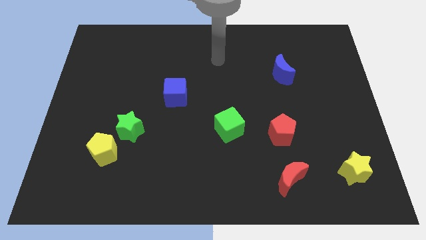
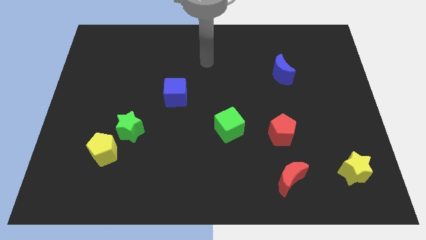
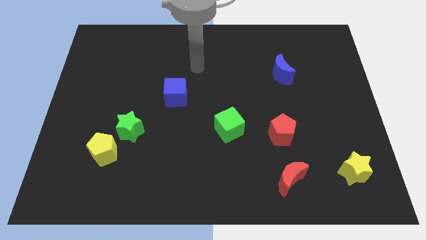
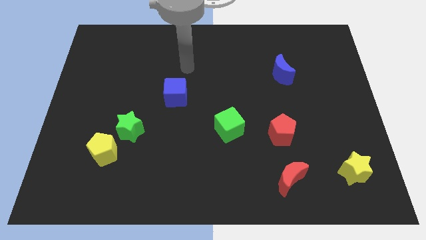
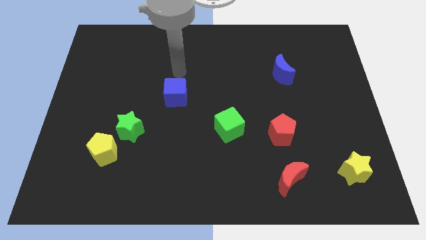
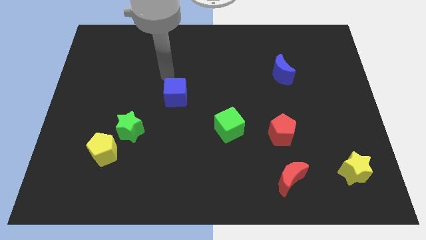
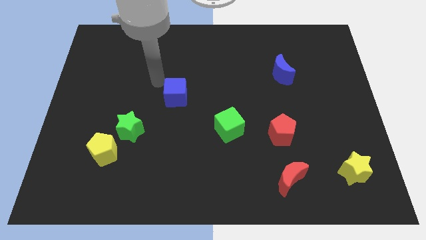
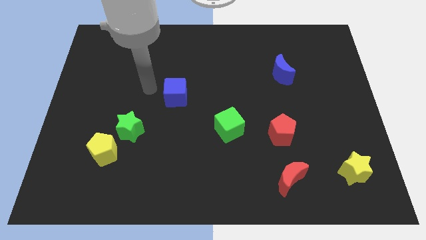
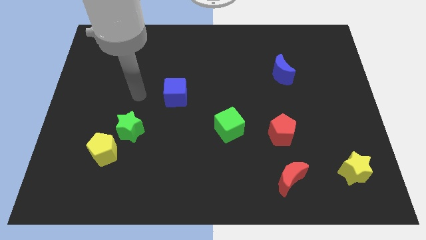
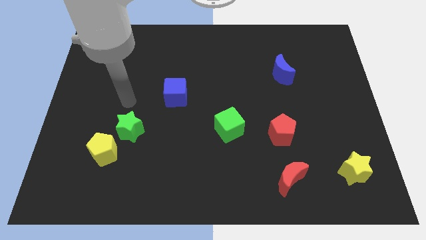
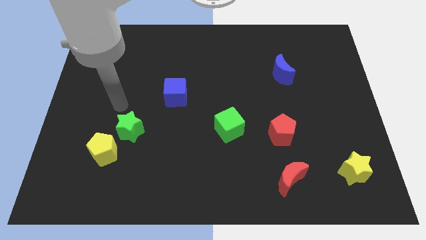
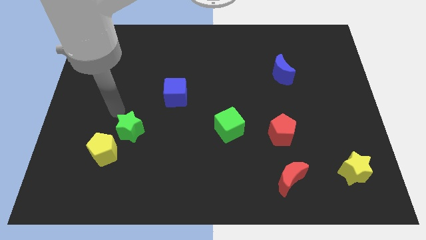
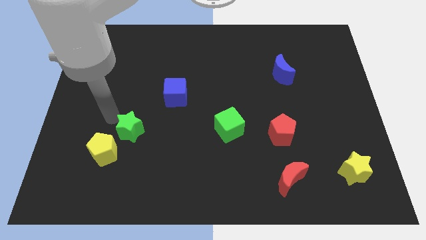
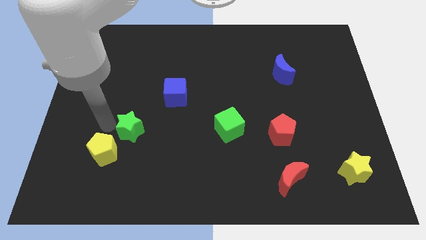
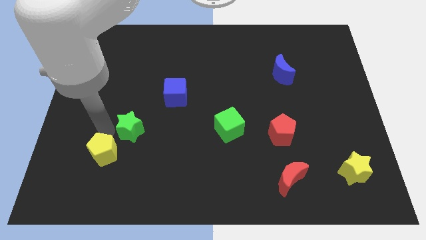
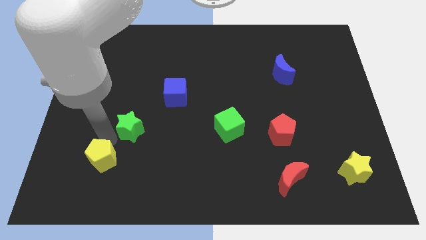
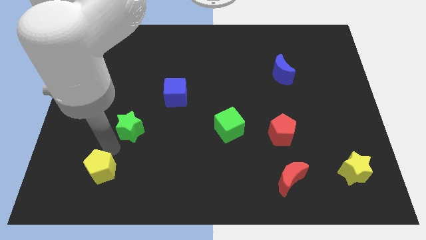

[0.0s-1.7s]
pull the green star apart from the yellow pentagon

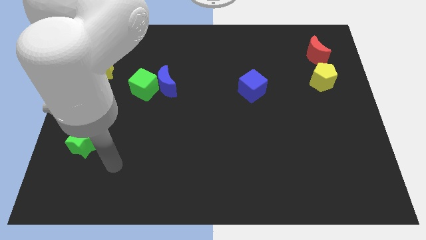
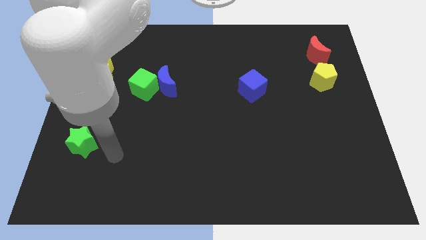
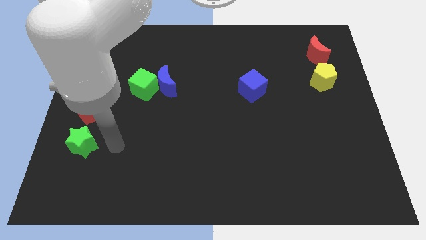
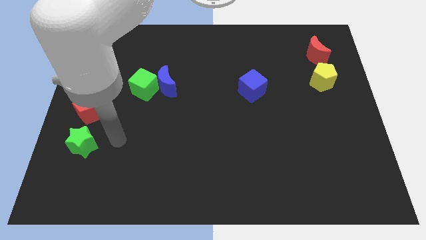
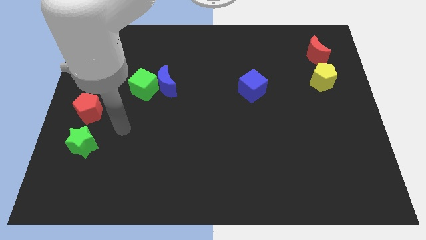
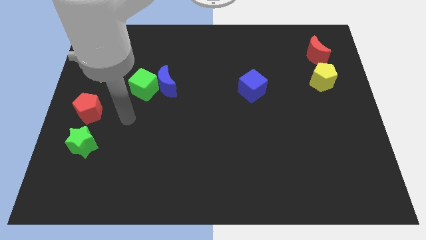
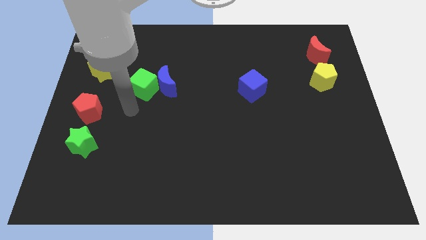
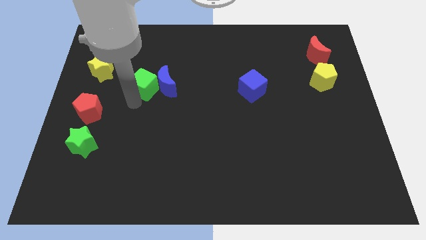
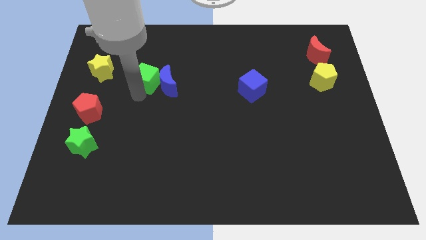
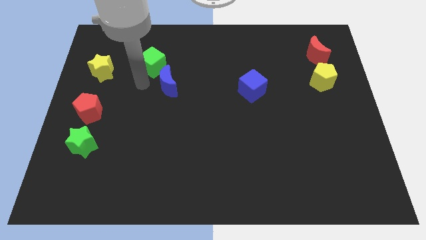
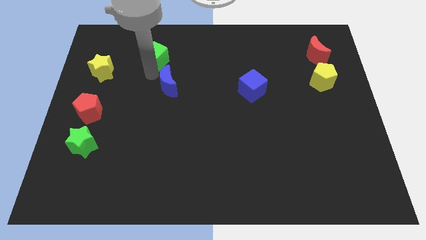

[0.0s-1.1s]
separate the blue moon from the green cube

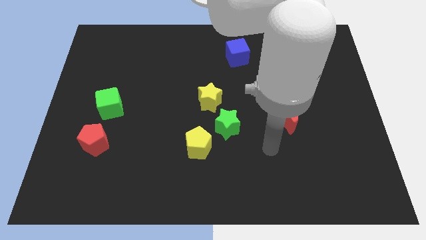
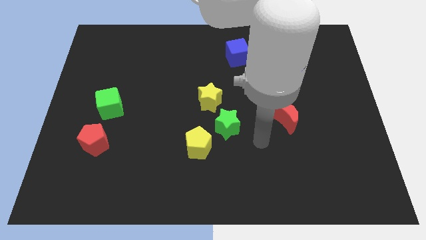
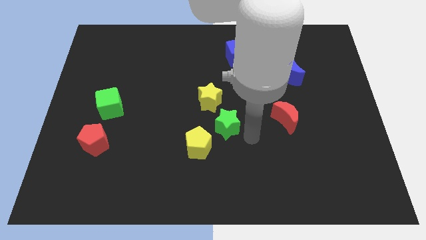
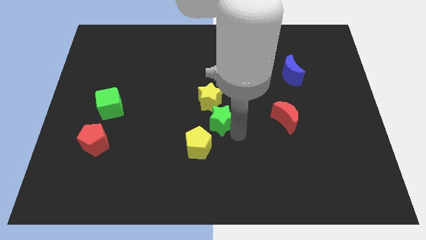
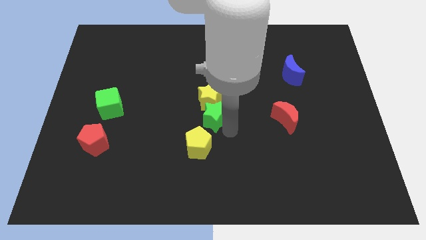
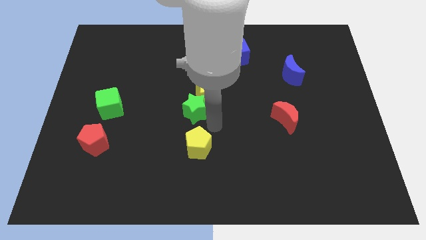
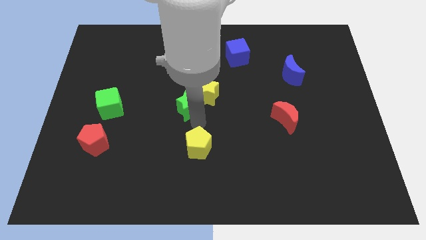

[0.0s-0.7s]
pull the yellow pentagon apart from the green star

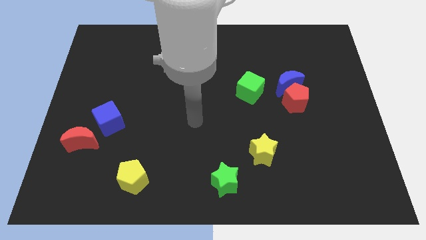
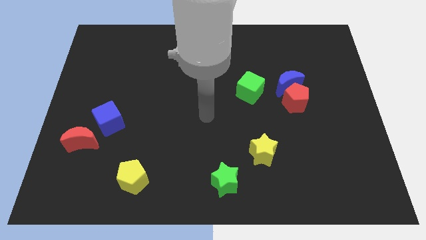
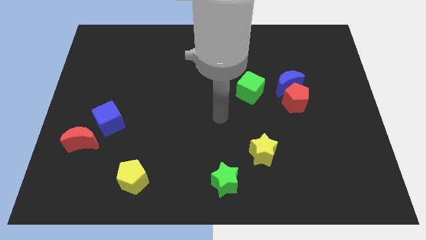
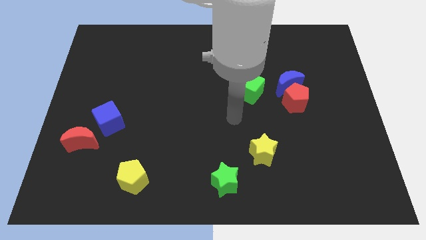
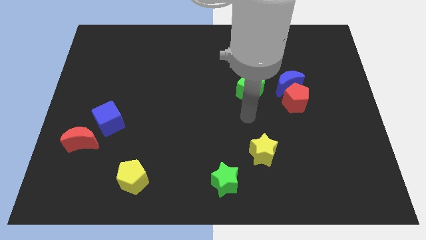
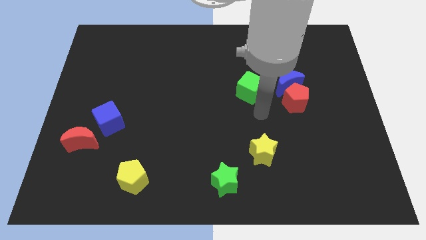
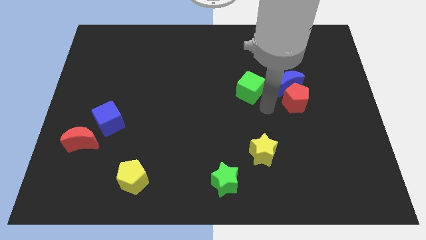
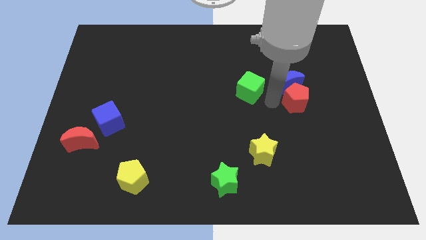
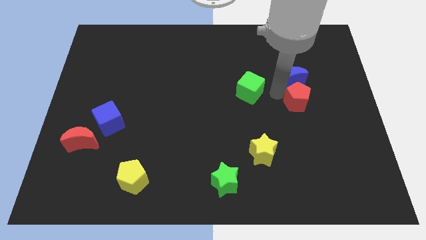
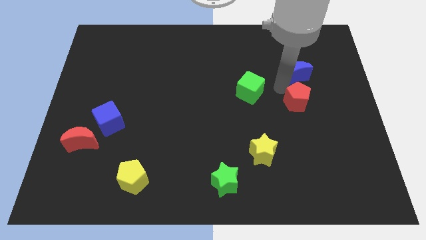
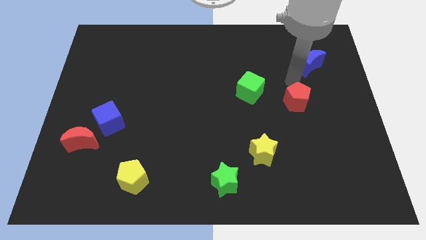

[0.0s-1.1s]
move the red pentagon away from the blue moon

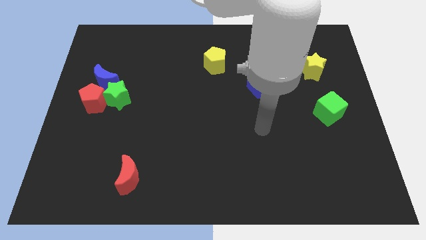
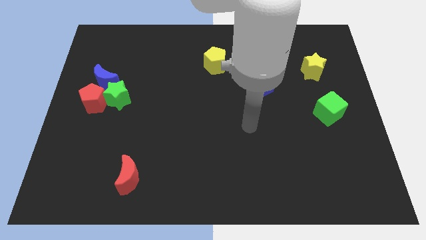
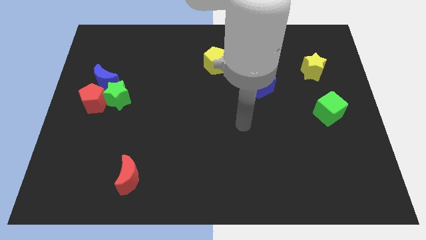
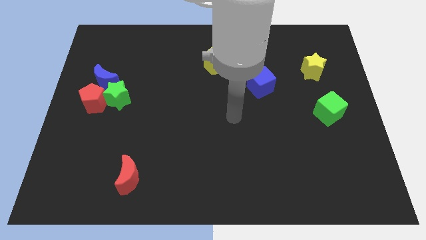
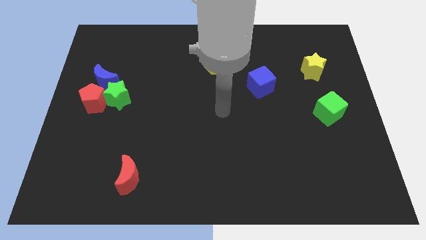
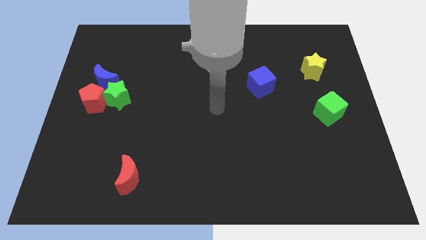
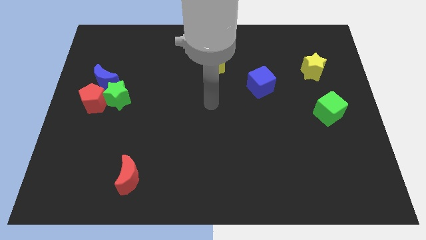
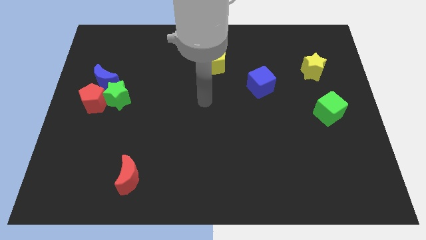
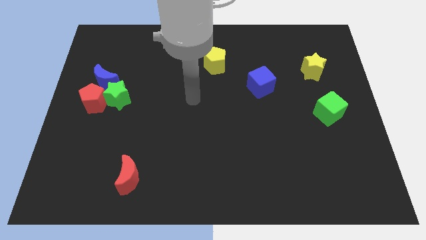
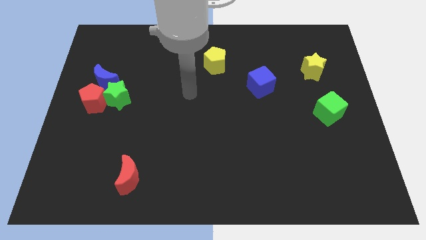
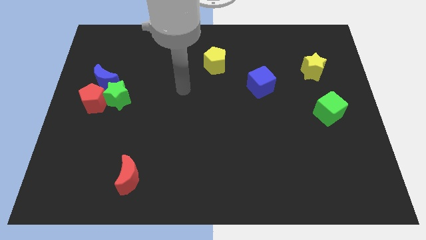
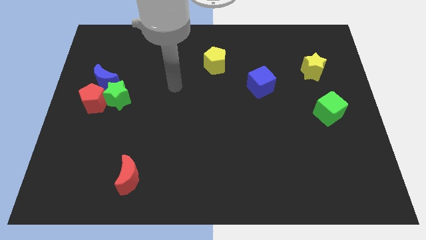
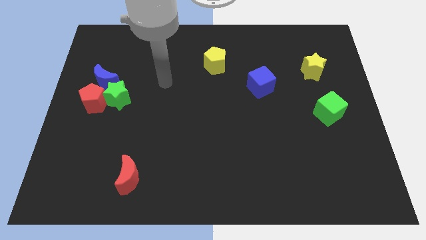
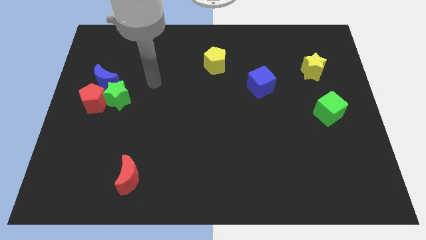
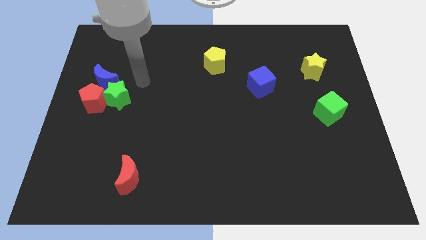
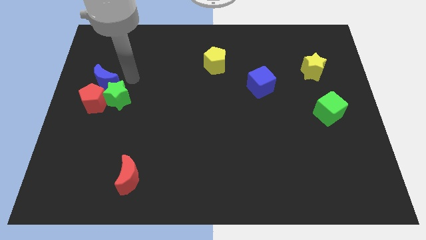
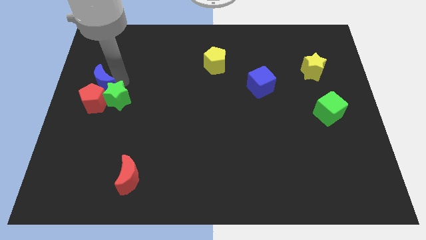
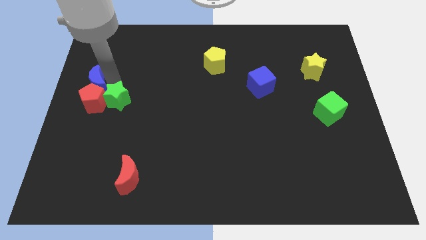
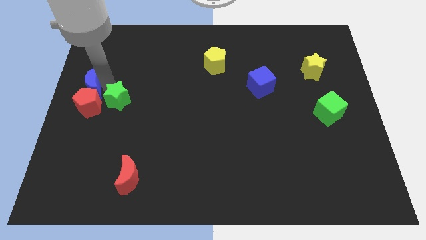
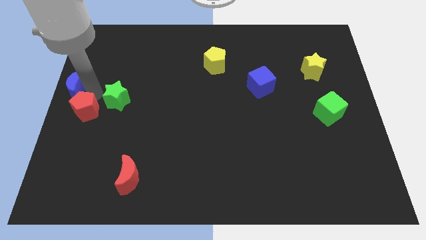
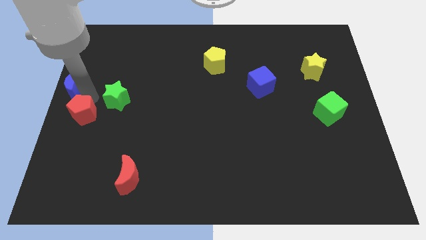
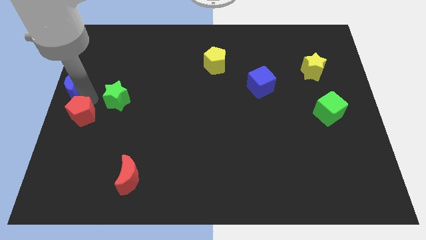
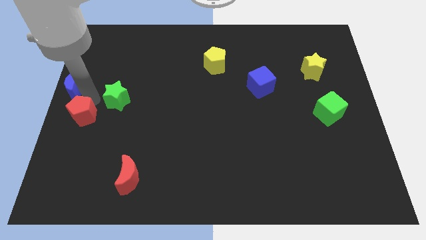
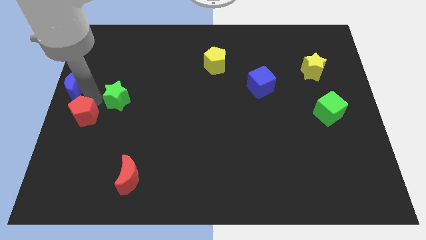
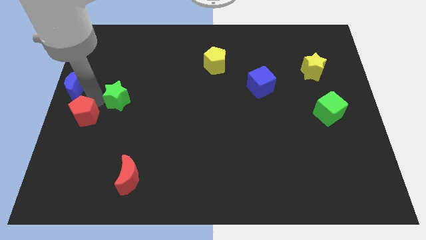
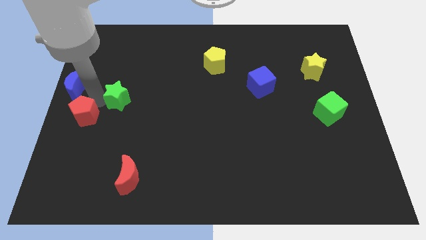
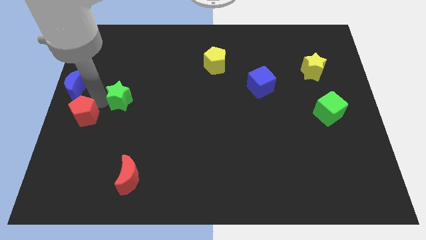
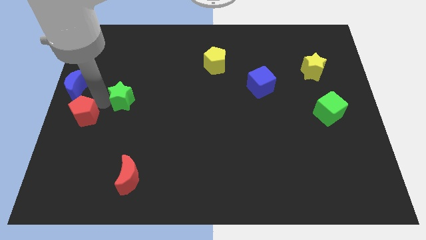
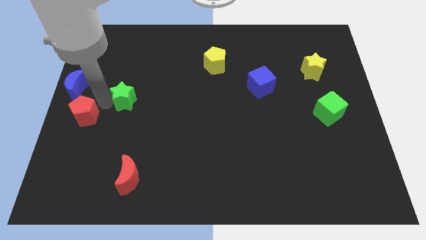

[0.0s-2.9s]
move the green star away from the red pentagon and blue moon

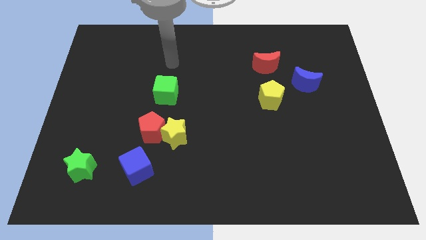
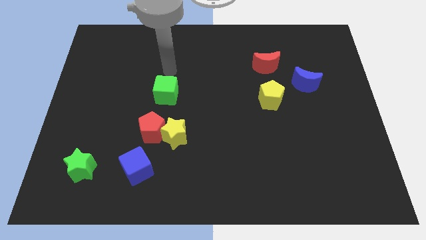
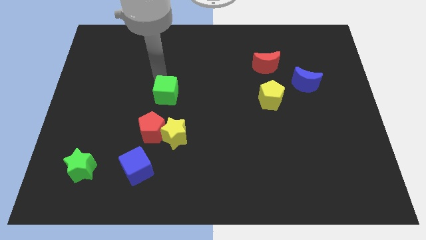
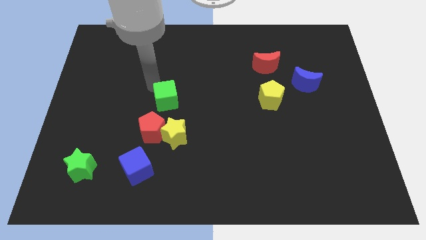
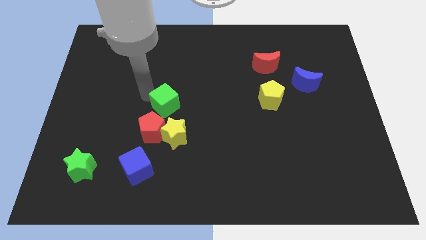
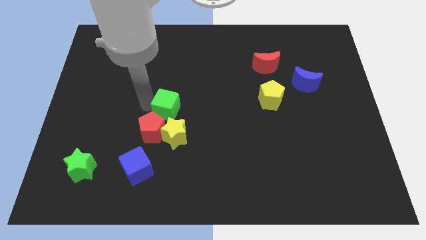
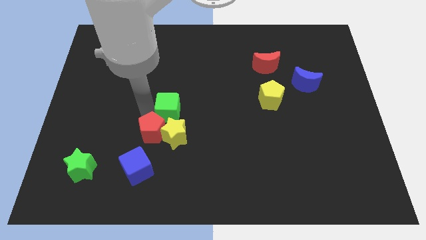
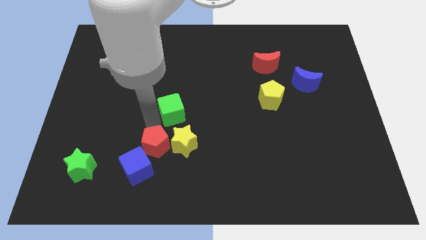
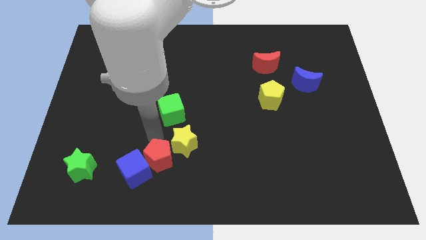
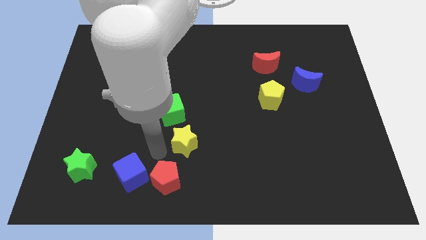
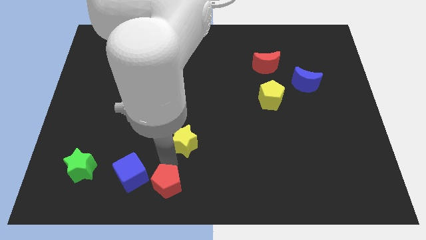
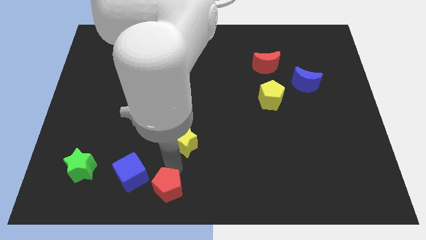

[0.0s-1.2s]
pull the yellow star apart from the red pentagon

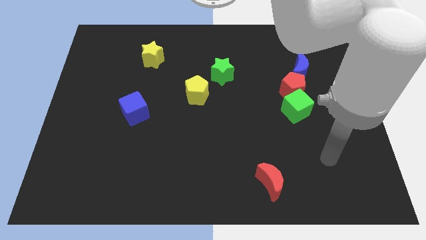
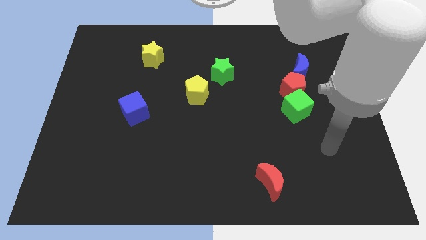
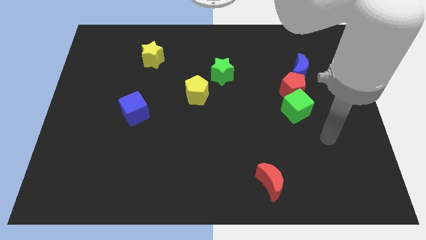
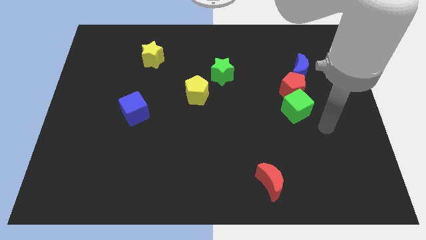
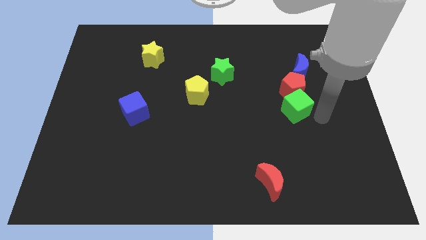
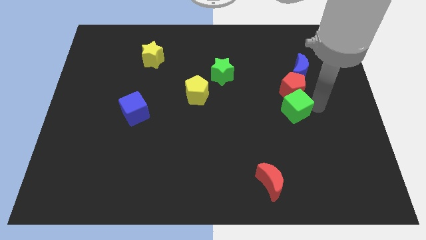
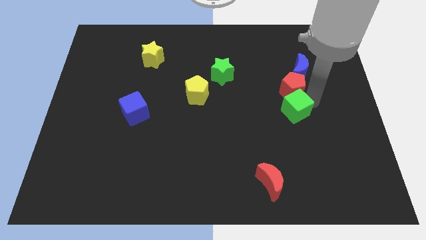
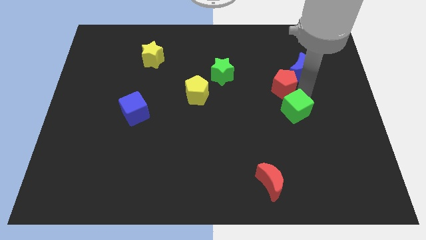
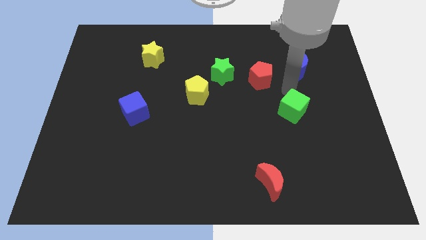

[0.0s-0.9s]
pull the green cube apart from the red pentagon
